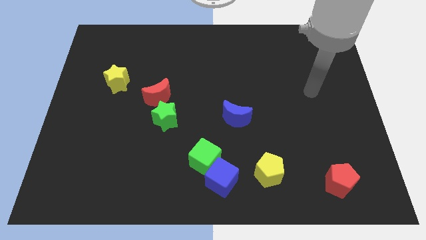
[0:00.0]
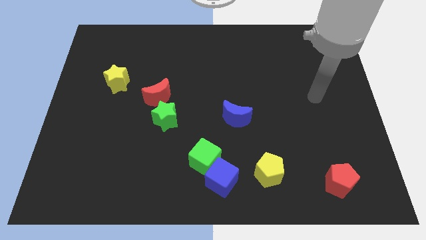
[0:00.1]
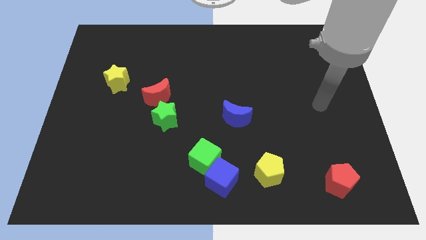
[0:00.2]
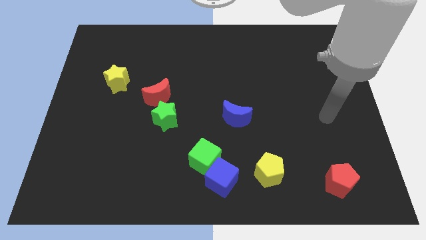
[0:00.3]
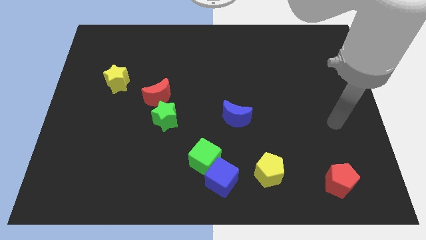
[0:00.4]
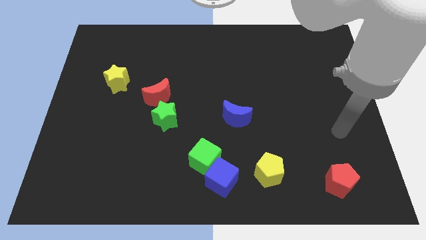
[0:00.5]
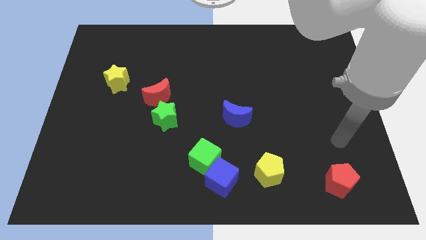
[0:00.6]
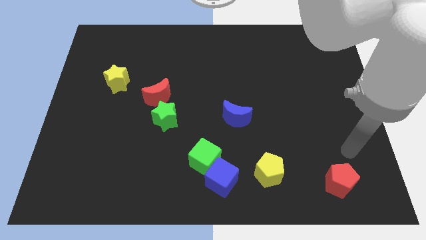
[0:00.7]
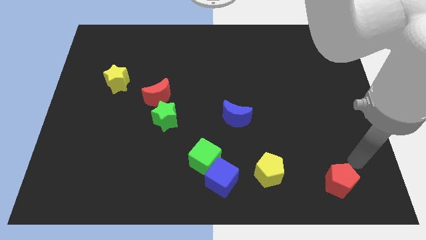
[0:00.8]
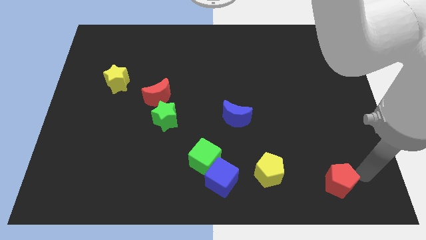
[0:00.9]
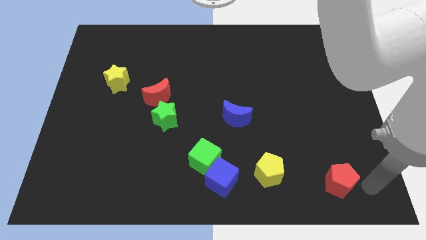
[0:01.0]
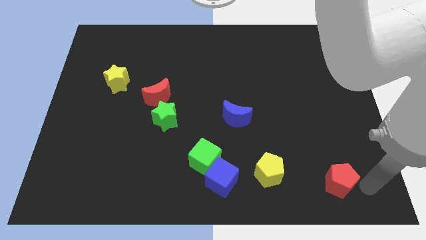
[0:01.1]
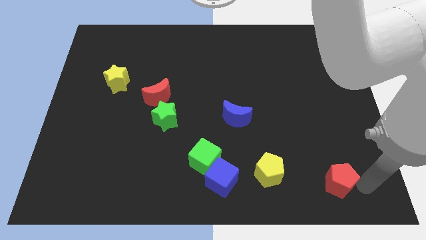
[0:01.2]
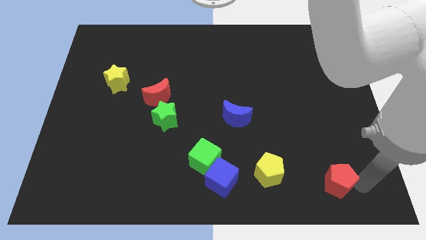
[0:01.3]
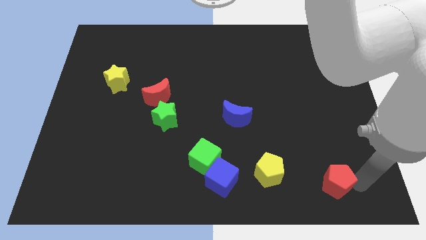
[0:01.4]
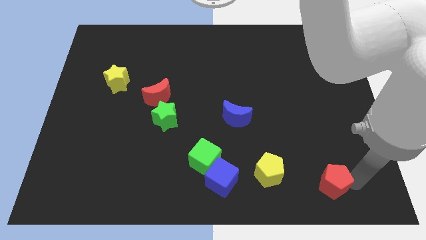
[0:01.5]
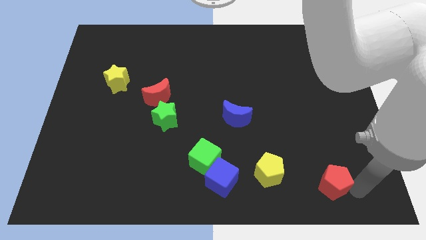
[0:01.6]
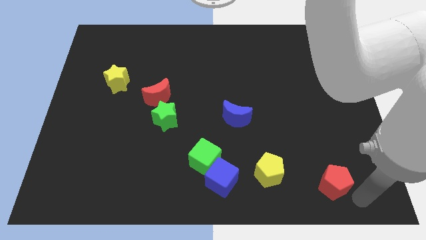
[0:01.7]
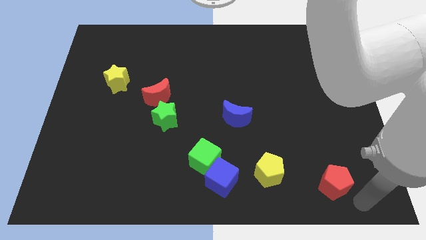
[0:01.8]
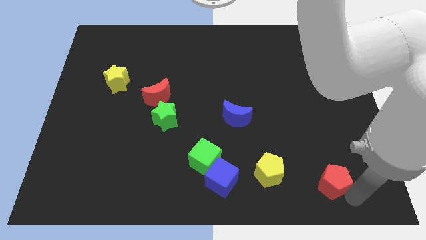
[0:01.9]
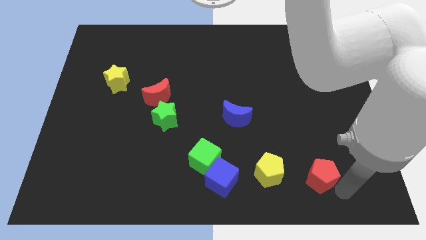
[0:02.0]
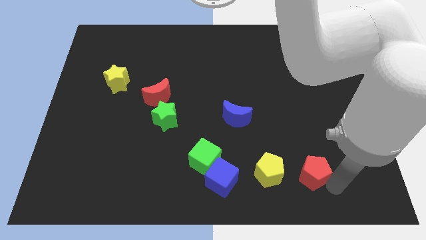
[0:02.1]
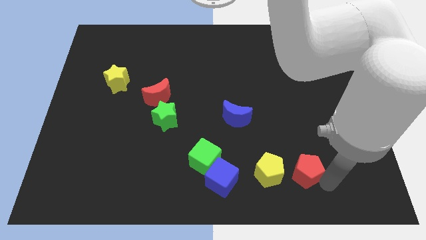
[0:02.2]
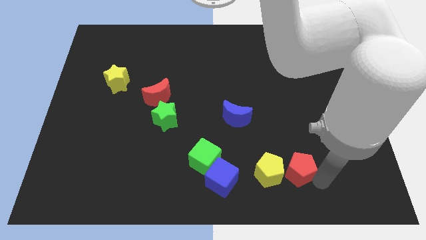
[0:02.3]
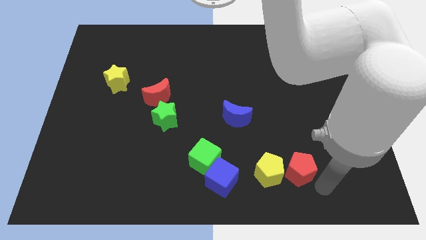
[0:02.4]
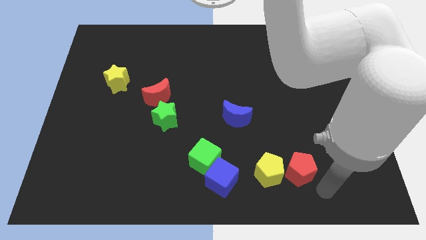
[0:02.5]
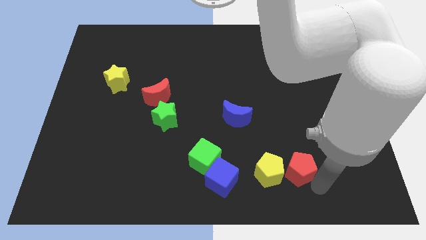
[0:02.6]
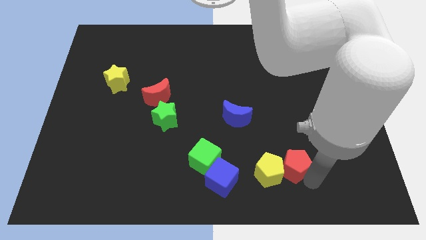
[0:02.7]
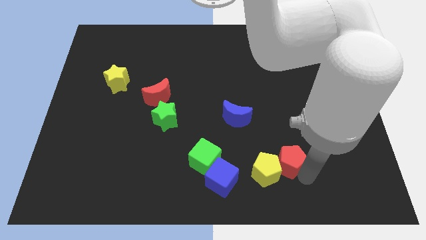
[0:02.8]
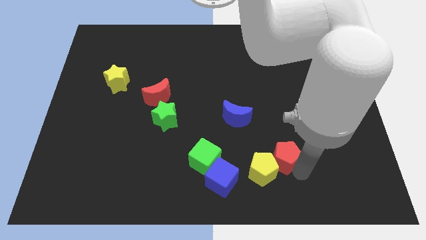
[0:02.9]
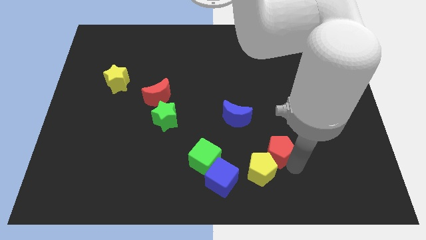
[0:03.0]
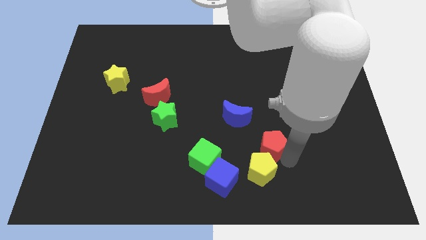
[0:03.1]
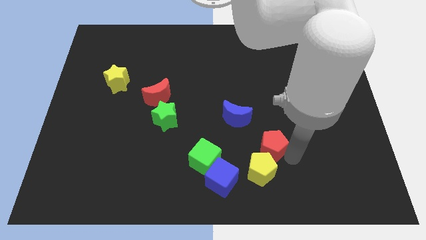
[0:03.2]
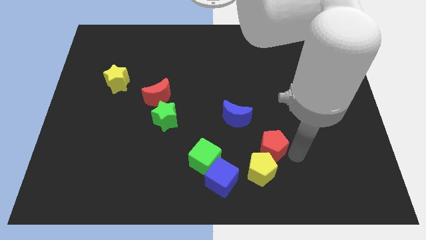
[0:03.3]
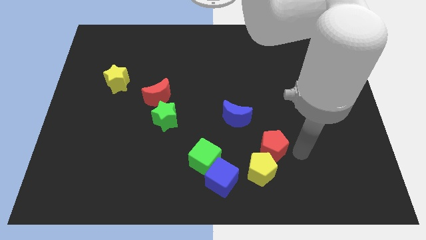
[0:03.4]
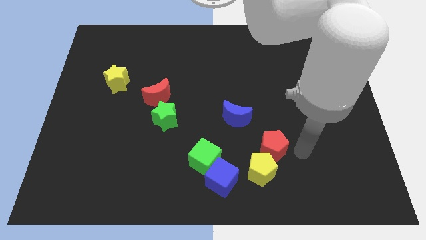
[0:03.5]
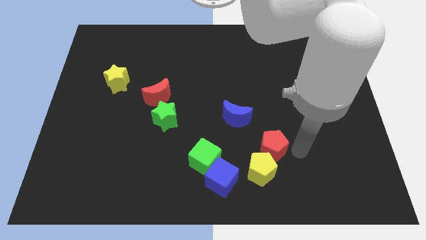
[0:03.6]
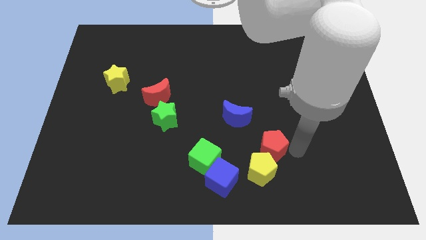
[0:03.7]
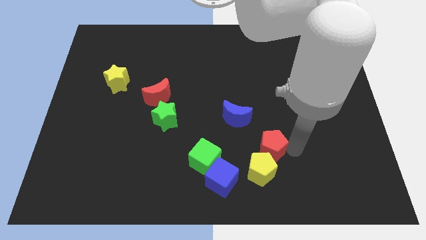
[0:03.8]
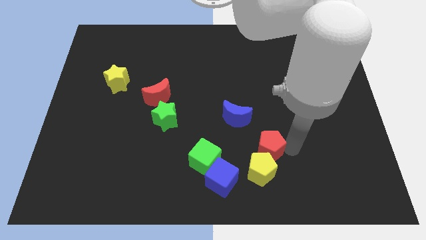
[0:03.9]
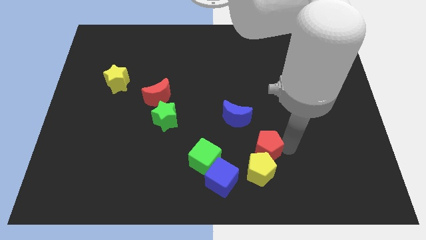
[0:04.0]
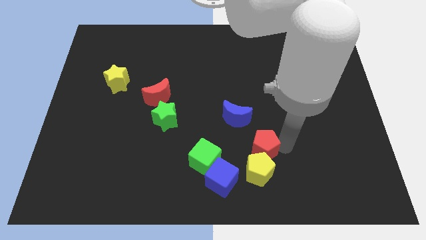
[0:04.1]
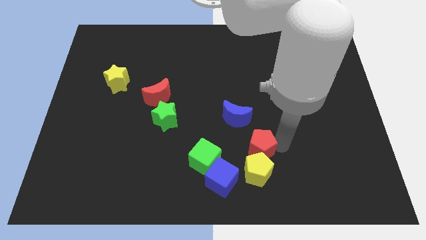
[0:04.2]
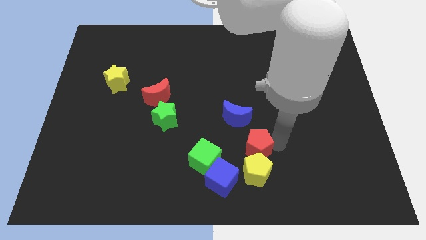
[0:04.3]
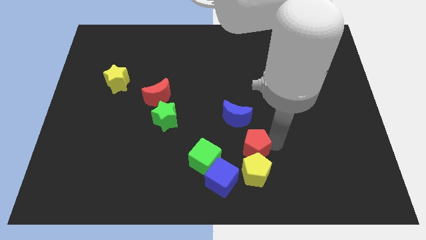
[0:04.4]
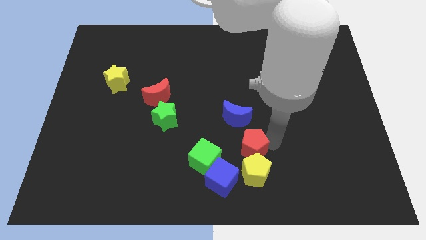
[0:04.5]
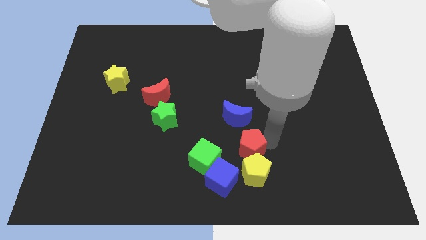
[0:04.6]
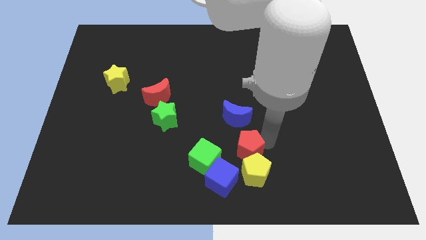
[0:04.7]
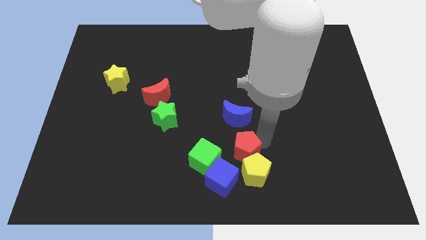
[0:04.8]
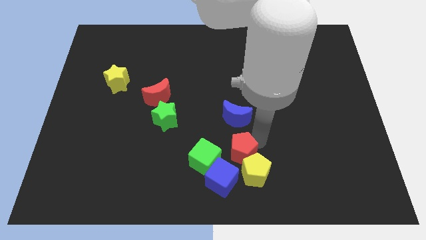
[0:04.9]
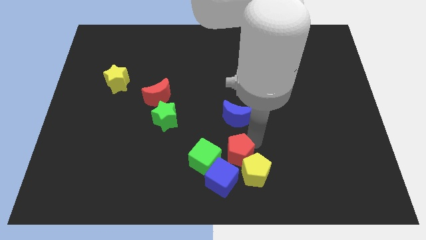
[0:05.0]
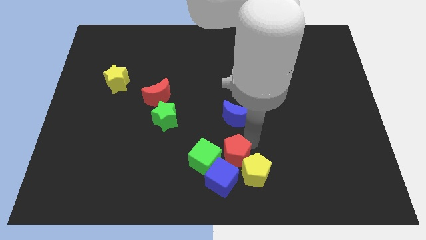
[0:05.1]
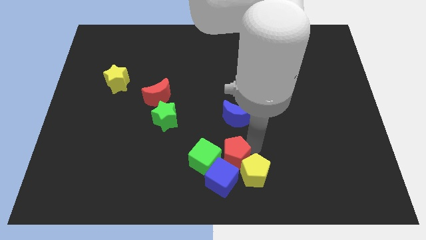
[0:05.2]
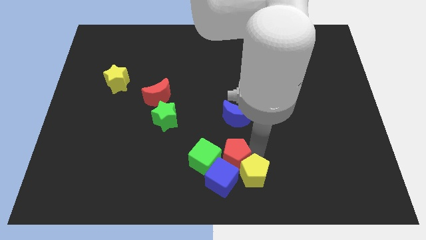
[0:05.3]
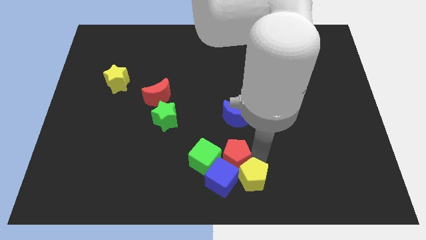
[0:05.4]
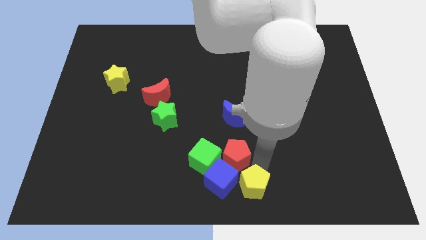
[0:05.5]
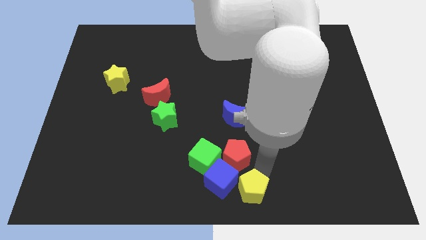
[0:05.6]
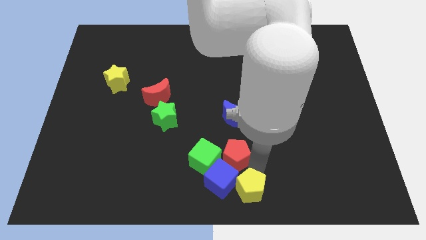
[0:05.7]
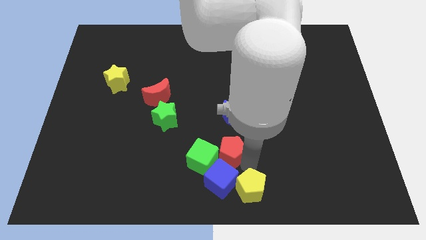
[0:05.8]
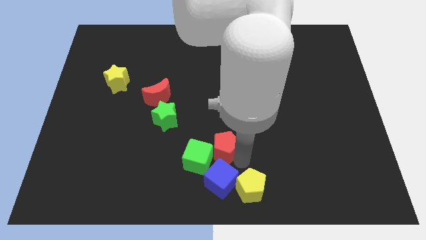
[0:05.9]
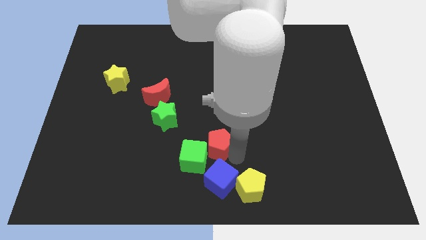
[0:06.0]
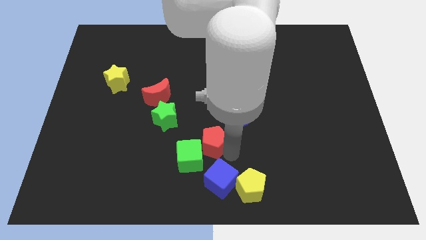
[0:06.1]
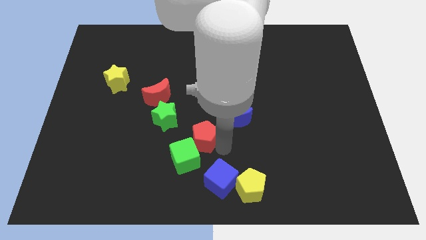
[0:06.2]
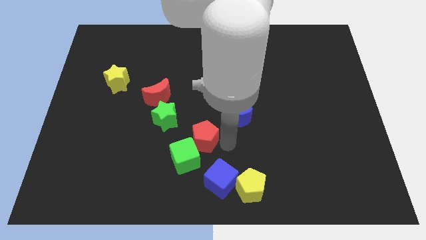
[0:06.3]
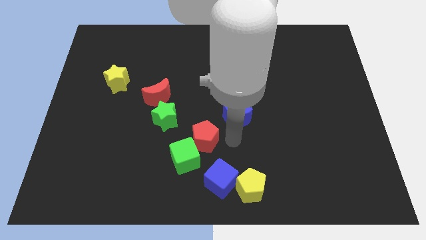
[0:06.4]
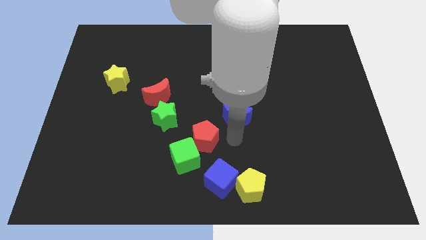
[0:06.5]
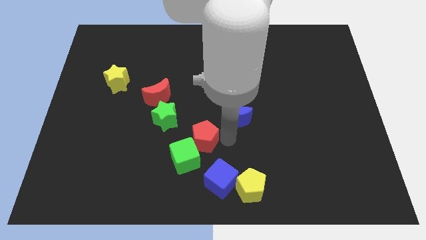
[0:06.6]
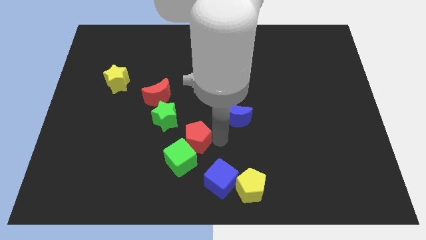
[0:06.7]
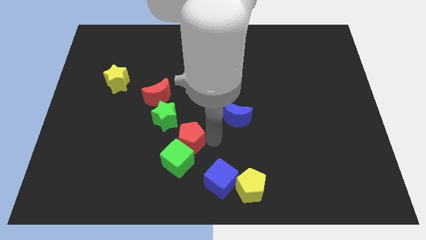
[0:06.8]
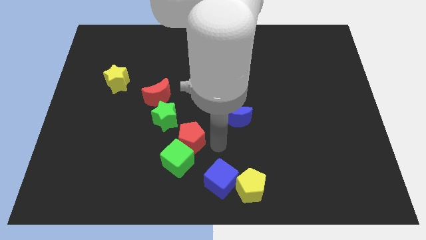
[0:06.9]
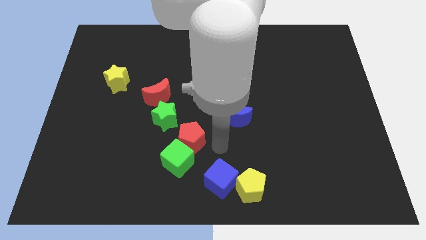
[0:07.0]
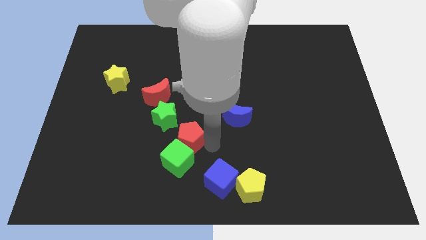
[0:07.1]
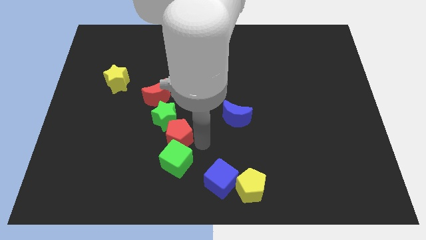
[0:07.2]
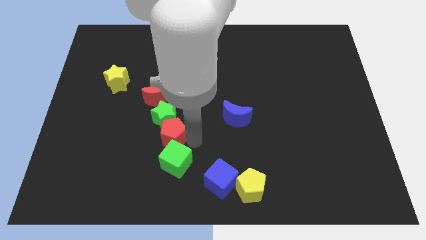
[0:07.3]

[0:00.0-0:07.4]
move the red pentagon below the red moon
